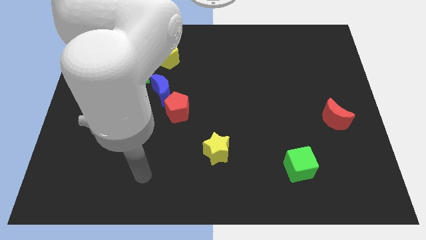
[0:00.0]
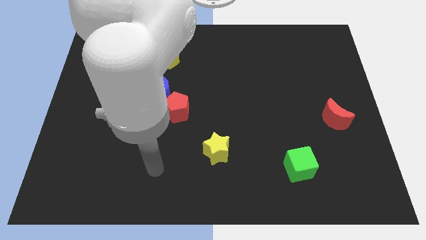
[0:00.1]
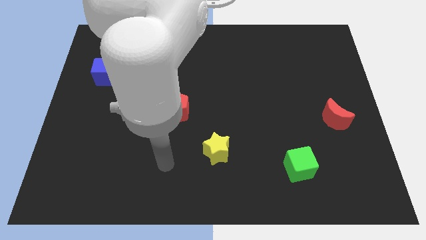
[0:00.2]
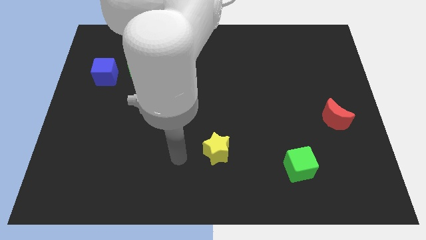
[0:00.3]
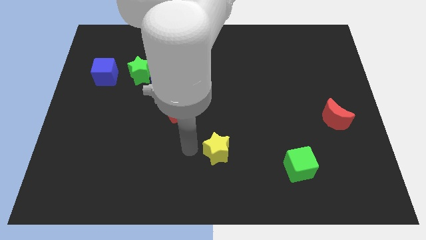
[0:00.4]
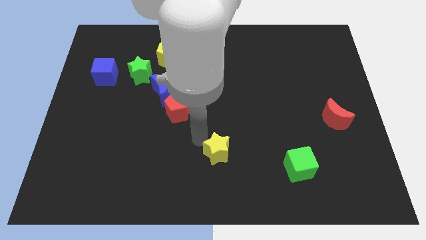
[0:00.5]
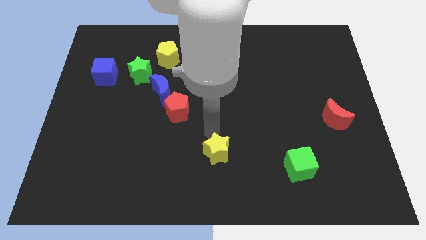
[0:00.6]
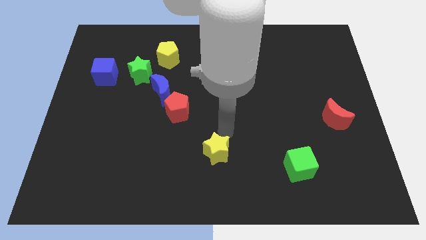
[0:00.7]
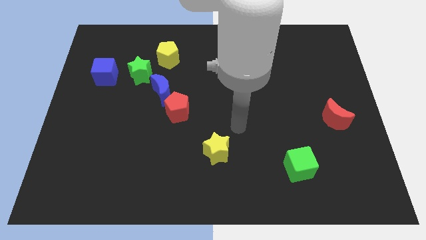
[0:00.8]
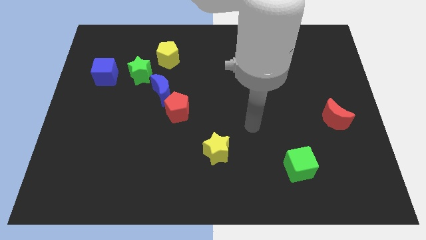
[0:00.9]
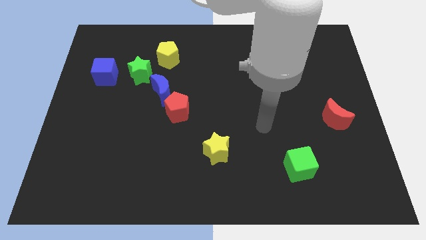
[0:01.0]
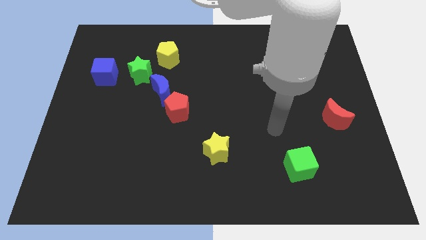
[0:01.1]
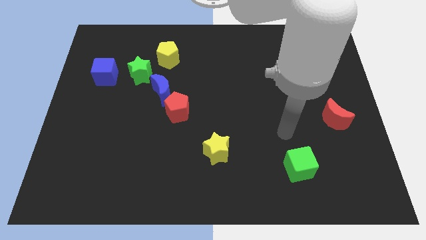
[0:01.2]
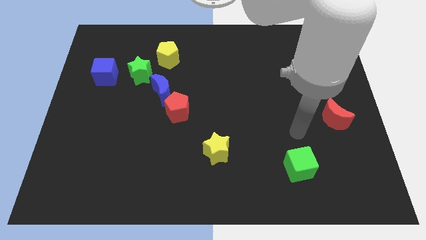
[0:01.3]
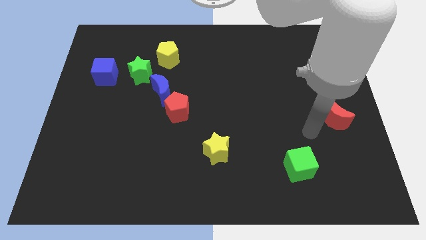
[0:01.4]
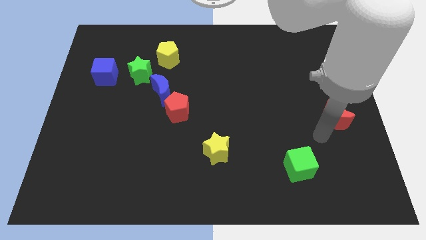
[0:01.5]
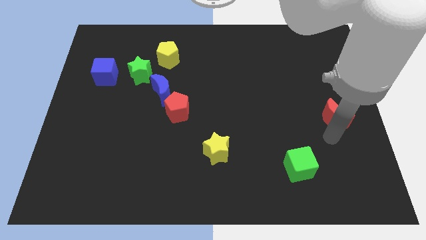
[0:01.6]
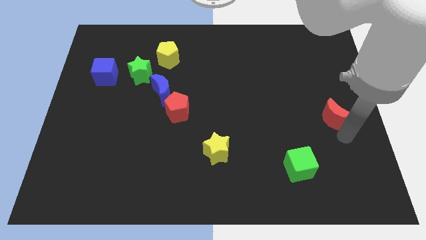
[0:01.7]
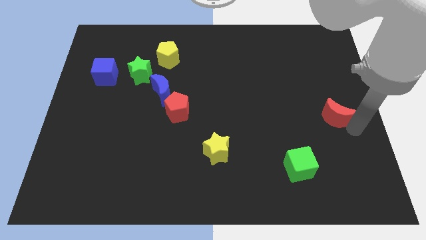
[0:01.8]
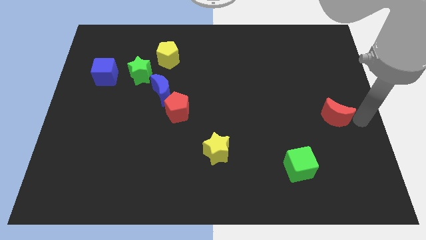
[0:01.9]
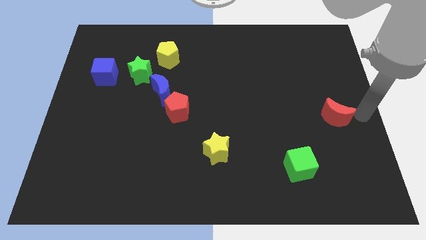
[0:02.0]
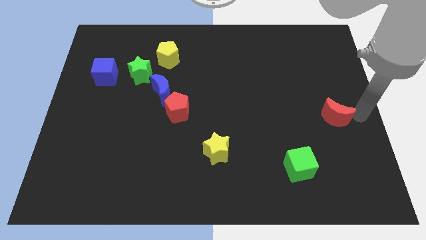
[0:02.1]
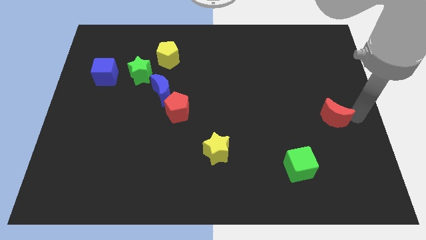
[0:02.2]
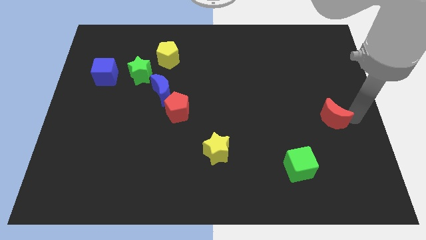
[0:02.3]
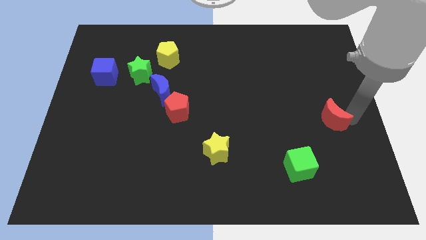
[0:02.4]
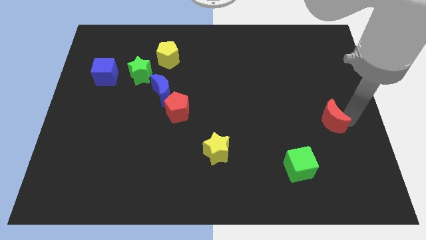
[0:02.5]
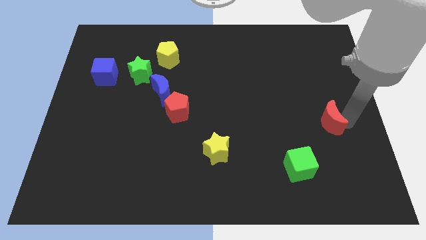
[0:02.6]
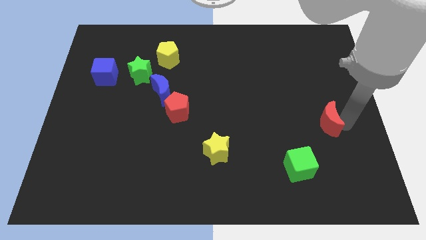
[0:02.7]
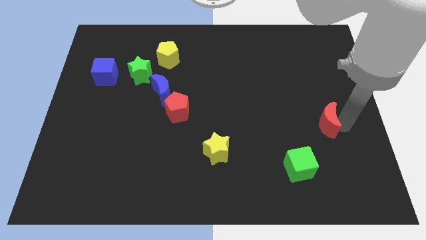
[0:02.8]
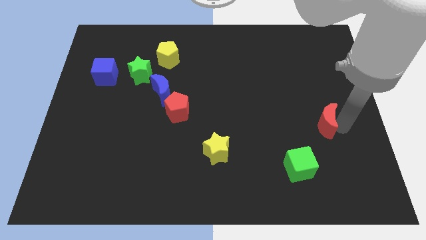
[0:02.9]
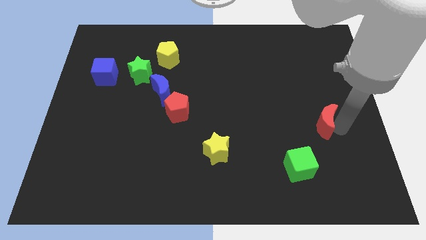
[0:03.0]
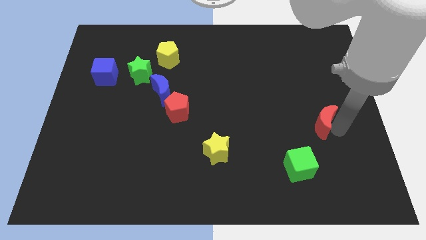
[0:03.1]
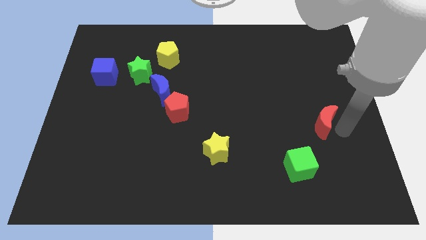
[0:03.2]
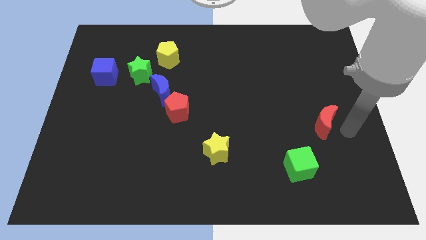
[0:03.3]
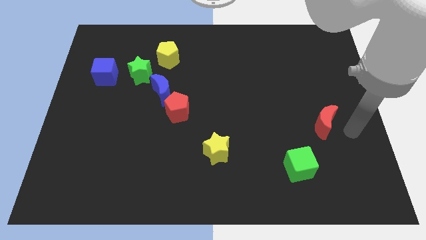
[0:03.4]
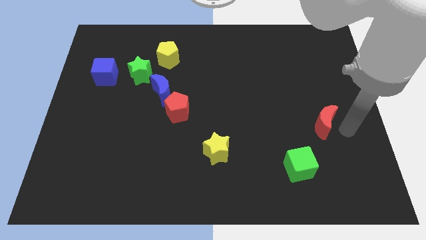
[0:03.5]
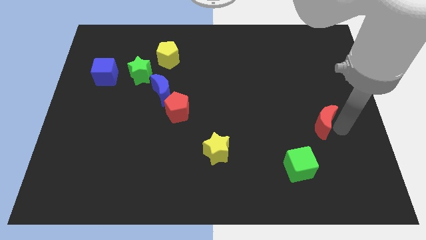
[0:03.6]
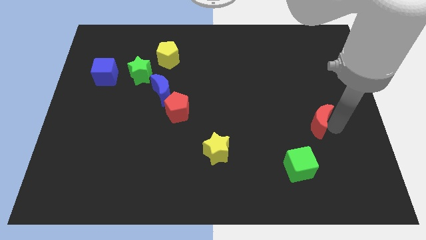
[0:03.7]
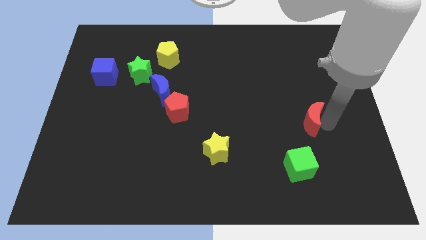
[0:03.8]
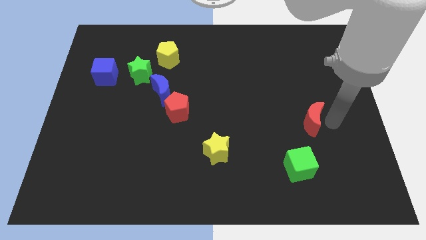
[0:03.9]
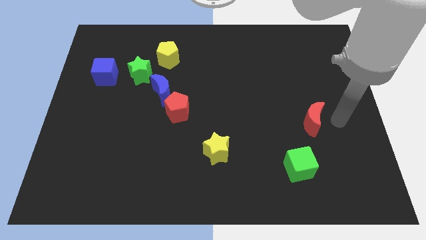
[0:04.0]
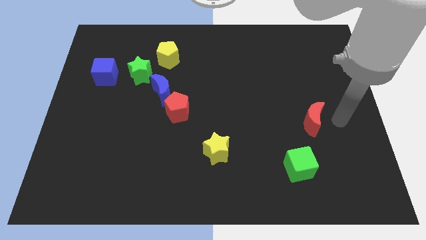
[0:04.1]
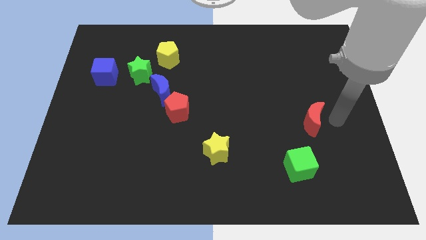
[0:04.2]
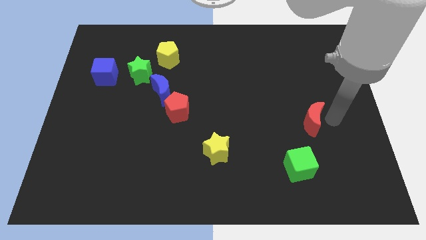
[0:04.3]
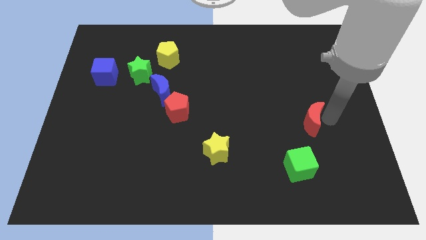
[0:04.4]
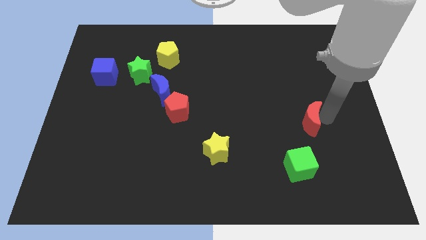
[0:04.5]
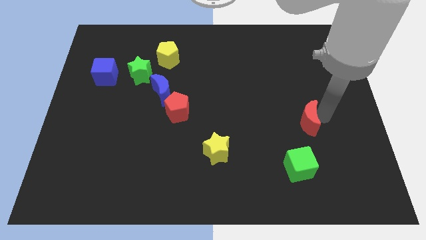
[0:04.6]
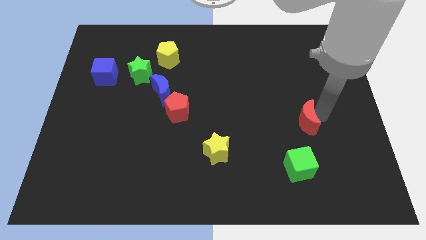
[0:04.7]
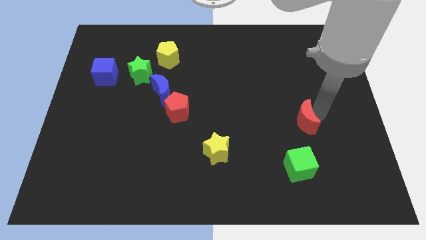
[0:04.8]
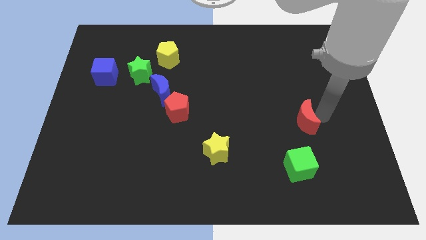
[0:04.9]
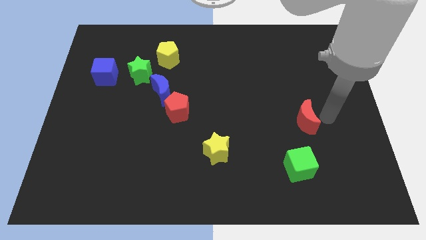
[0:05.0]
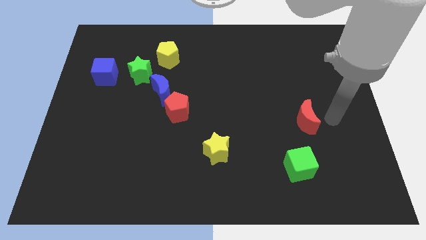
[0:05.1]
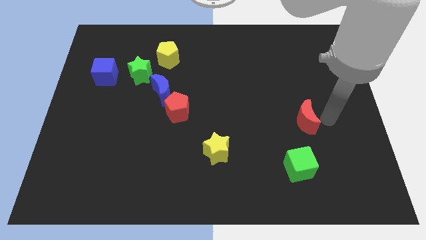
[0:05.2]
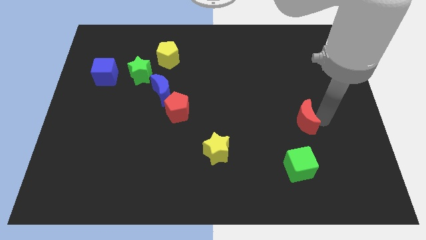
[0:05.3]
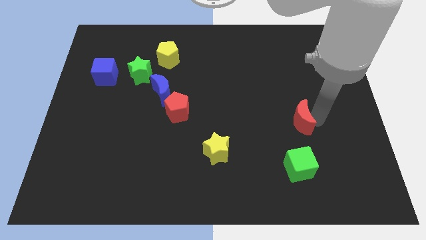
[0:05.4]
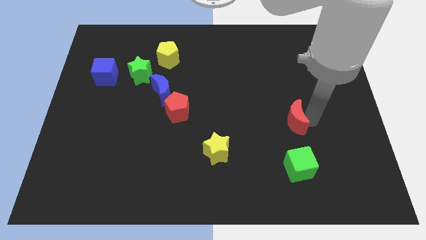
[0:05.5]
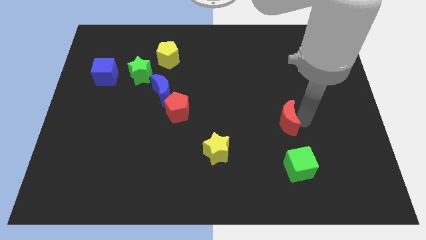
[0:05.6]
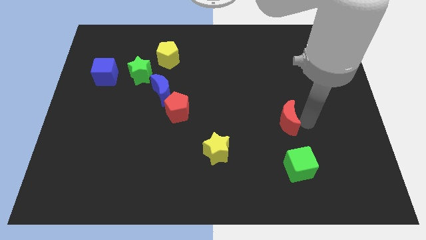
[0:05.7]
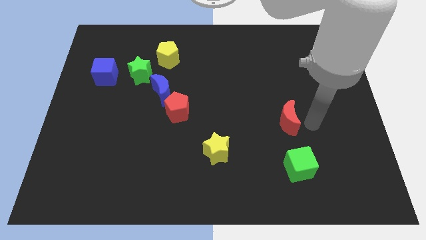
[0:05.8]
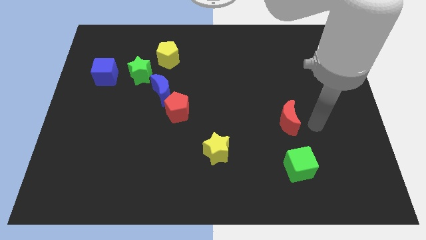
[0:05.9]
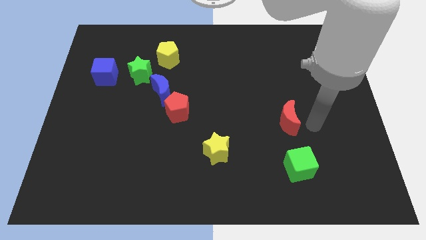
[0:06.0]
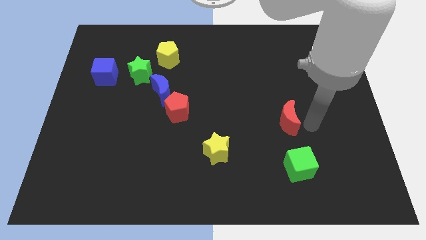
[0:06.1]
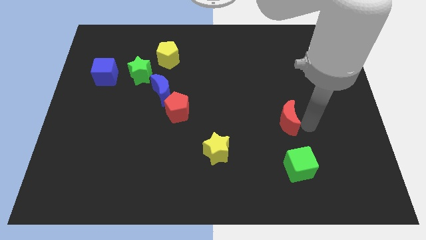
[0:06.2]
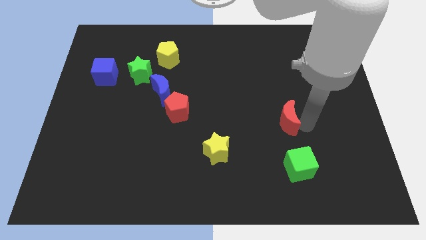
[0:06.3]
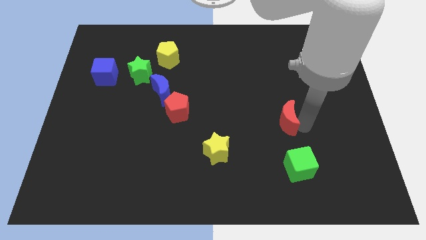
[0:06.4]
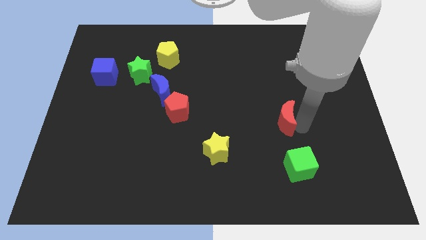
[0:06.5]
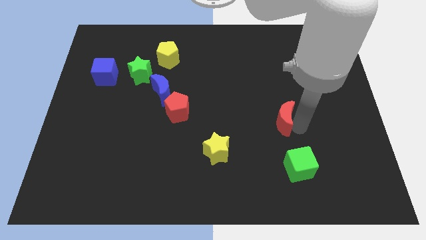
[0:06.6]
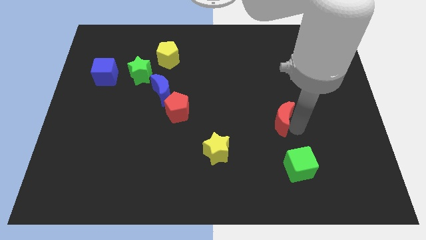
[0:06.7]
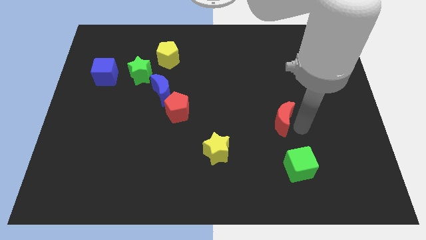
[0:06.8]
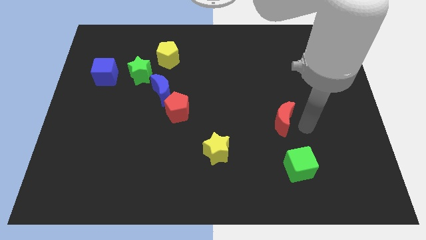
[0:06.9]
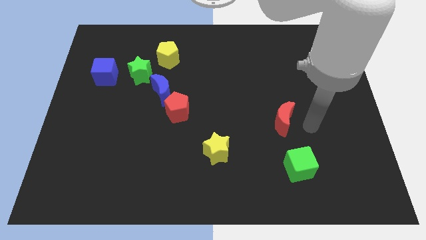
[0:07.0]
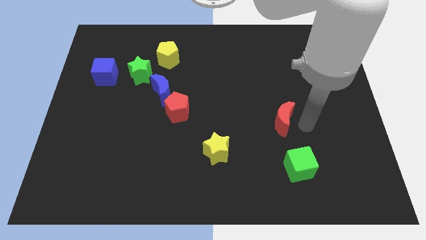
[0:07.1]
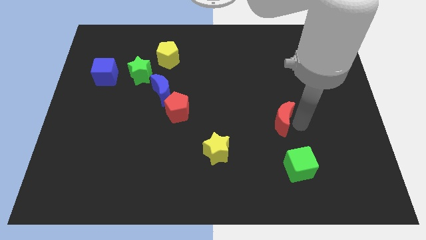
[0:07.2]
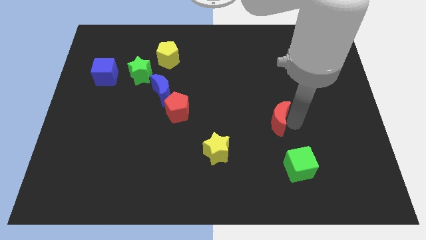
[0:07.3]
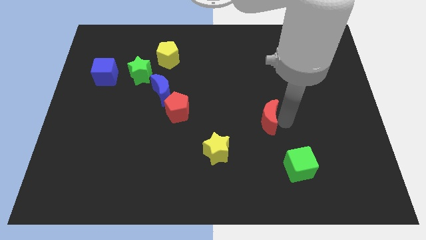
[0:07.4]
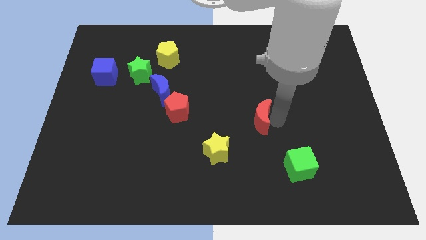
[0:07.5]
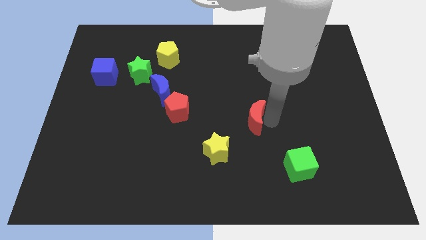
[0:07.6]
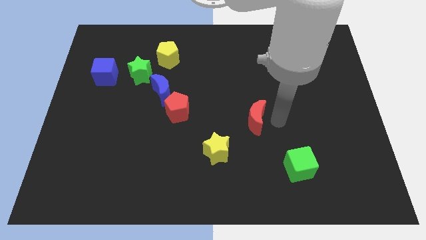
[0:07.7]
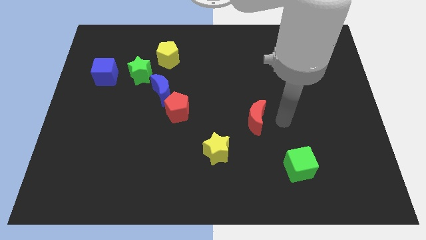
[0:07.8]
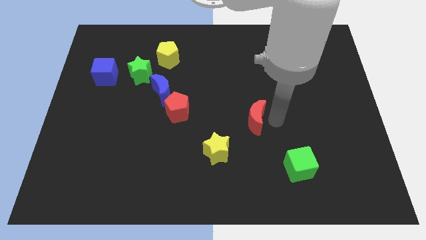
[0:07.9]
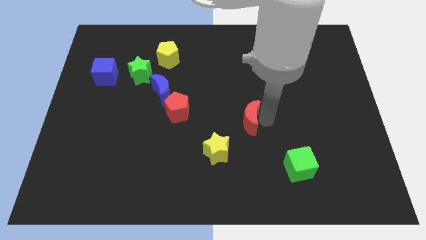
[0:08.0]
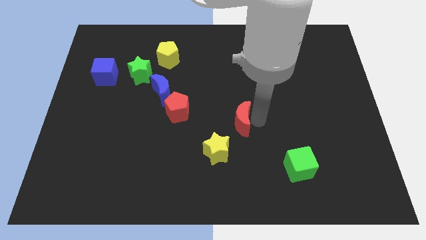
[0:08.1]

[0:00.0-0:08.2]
slide the red moon left
